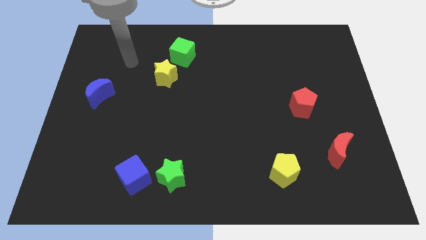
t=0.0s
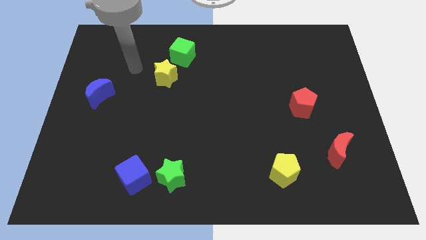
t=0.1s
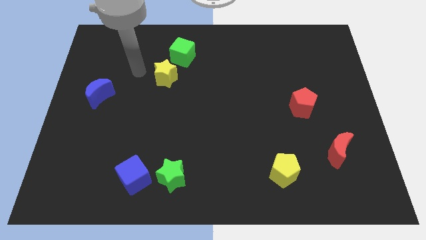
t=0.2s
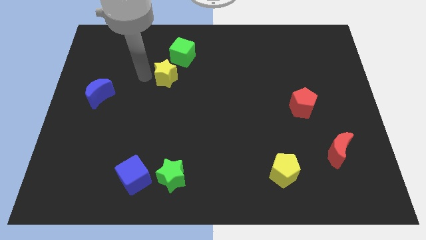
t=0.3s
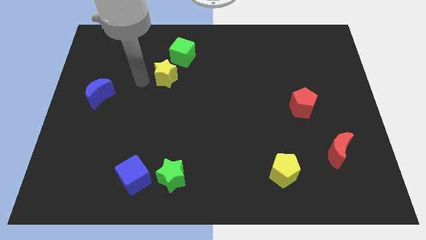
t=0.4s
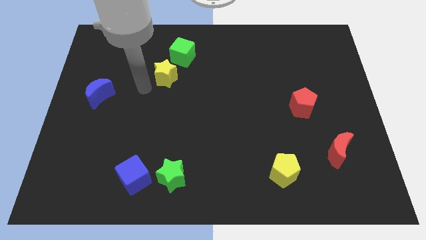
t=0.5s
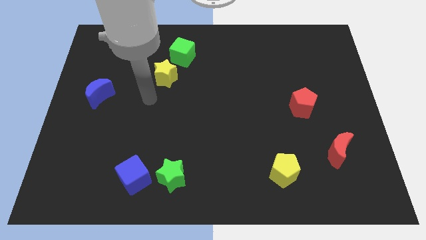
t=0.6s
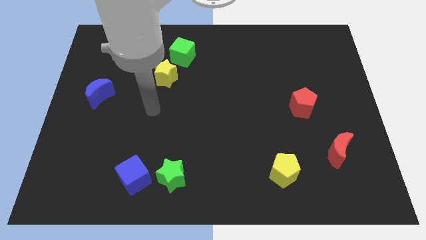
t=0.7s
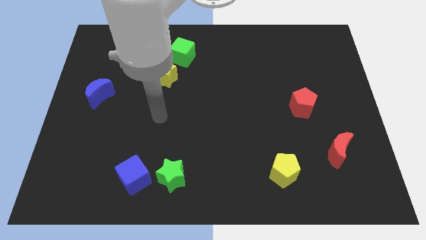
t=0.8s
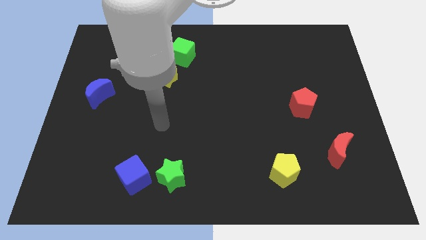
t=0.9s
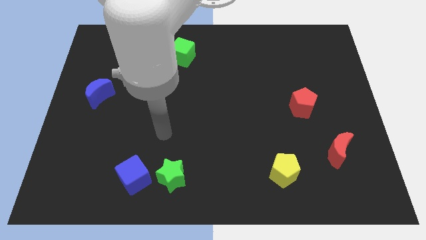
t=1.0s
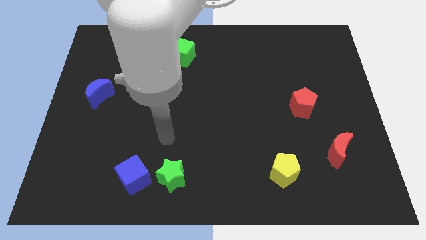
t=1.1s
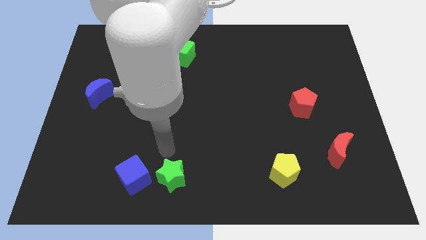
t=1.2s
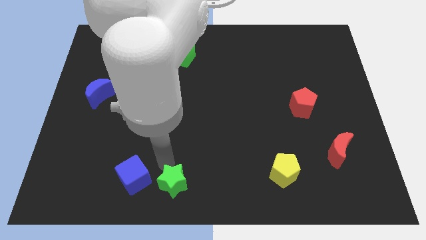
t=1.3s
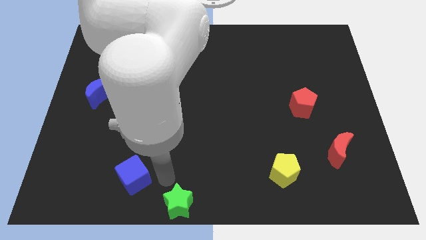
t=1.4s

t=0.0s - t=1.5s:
move the blue cube away from the green star

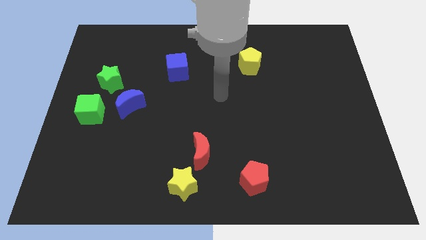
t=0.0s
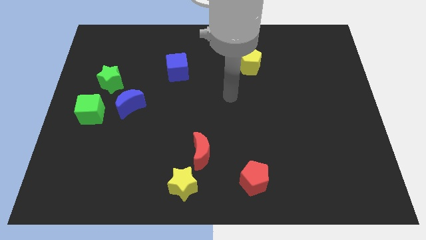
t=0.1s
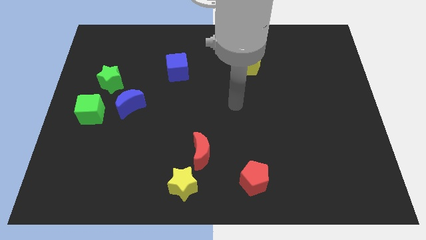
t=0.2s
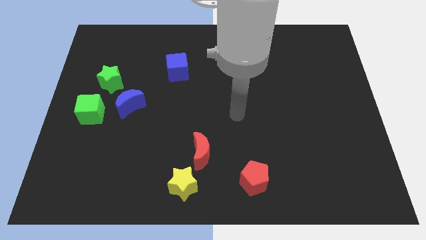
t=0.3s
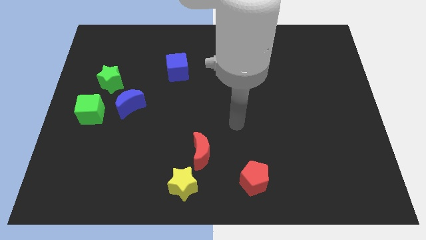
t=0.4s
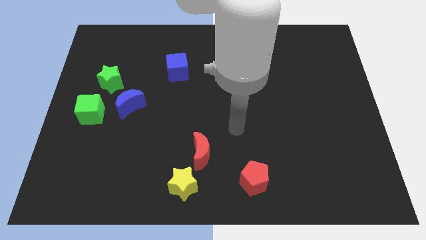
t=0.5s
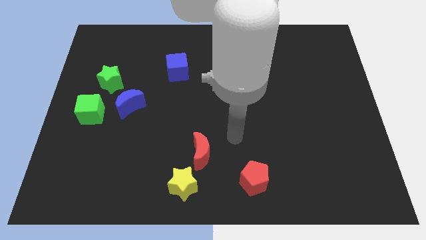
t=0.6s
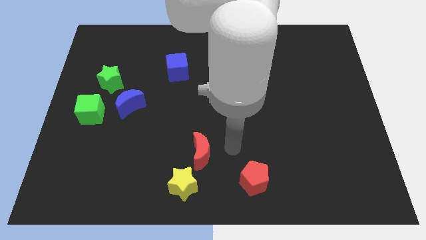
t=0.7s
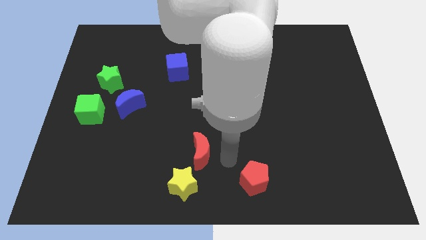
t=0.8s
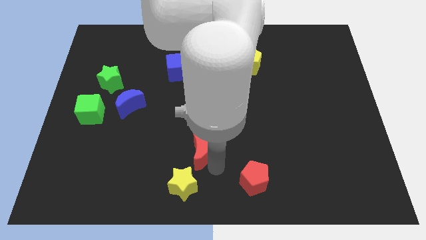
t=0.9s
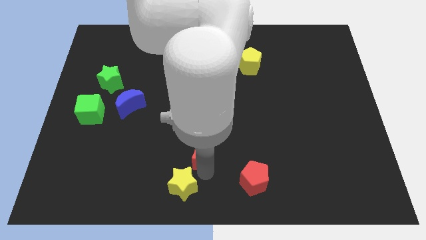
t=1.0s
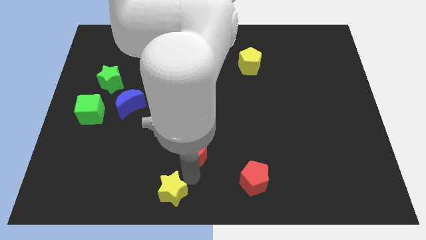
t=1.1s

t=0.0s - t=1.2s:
move the red moon away from the yellow star

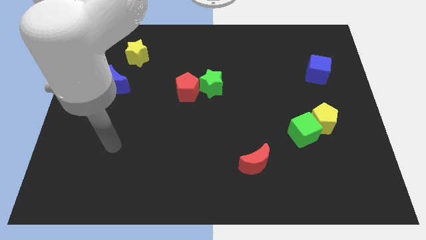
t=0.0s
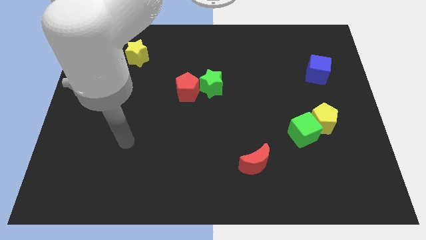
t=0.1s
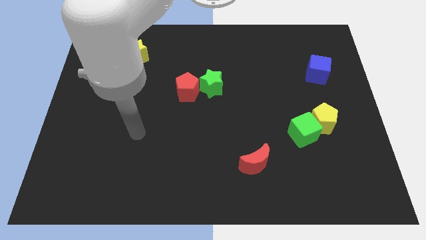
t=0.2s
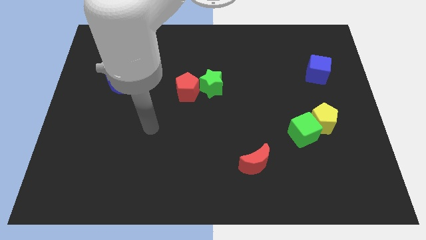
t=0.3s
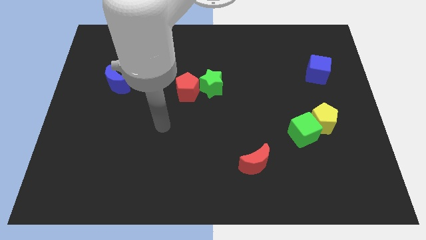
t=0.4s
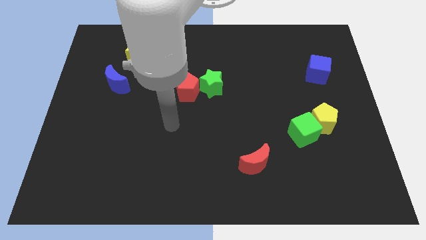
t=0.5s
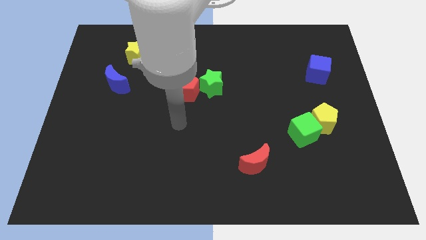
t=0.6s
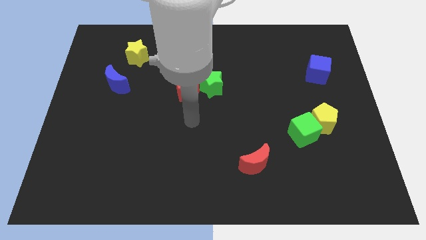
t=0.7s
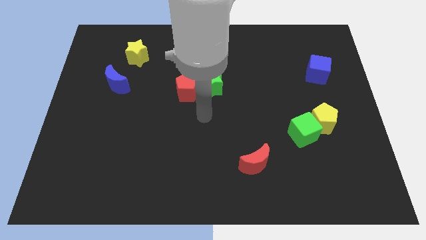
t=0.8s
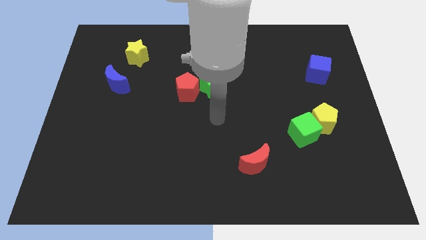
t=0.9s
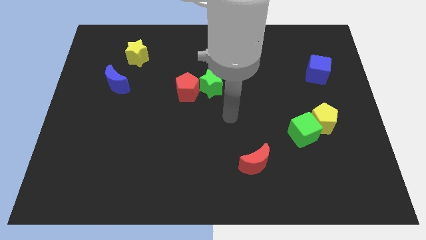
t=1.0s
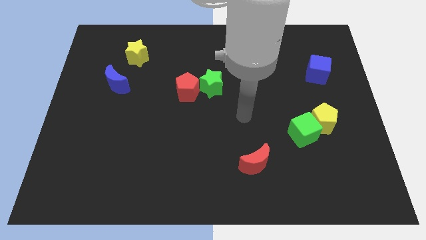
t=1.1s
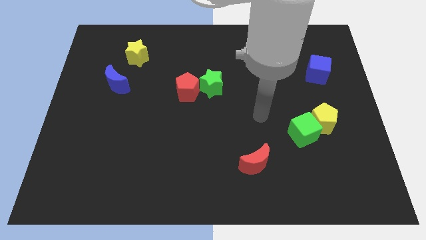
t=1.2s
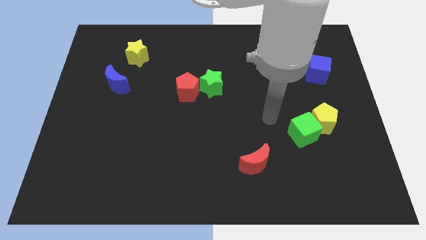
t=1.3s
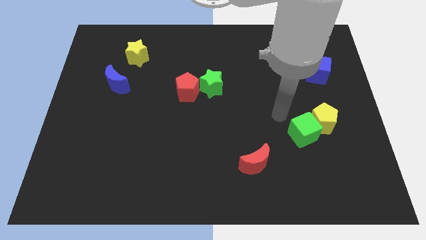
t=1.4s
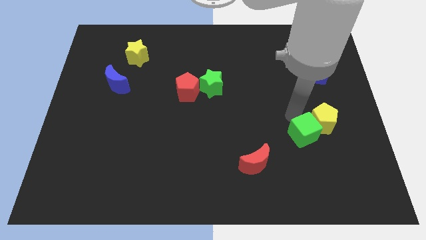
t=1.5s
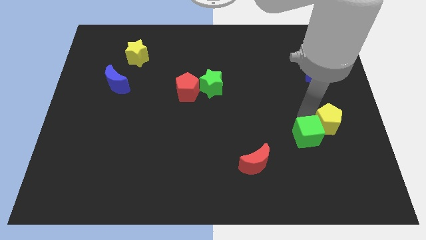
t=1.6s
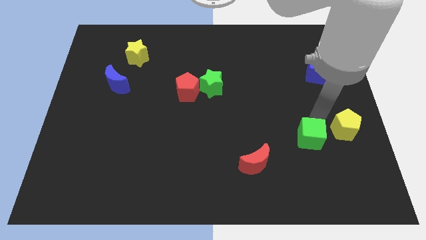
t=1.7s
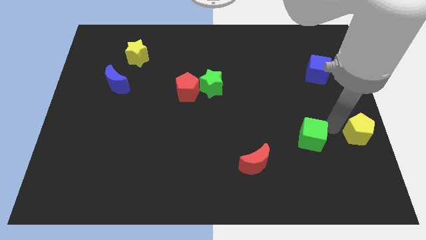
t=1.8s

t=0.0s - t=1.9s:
pull the green cube apart from the yellow pentagon

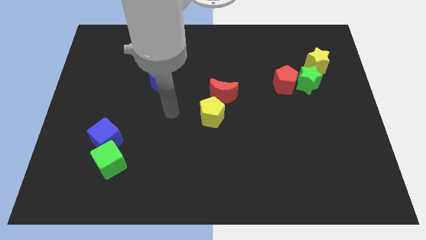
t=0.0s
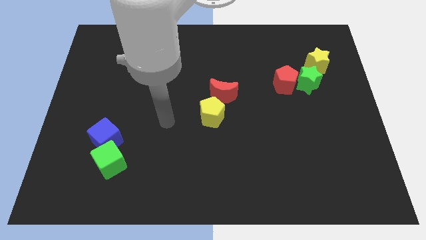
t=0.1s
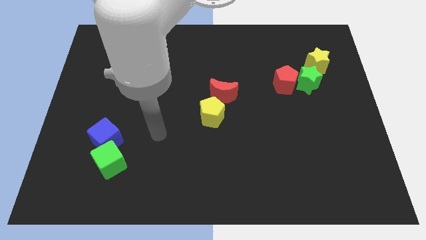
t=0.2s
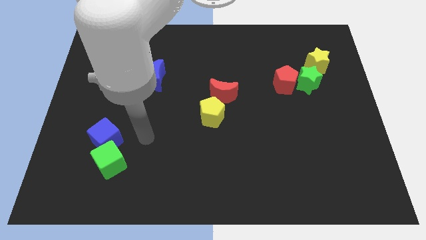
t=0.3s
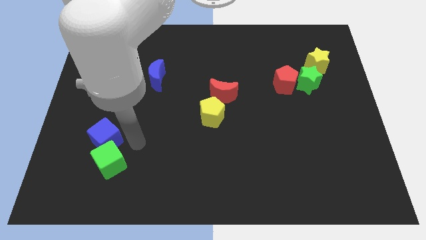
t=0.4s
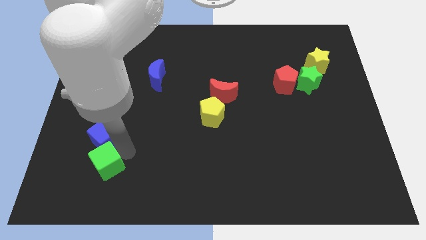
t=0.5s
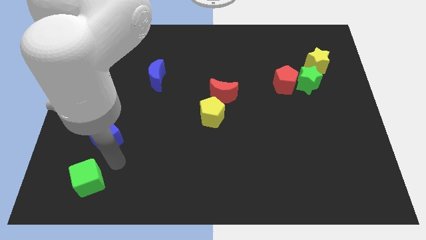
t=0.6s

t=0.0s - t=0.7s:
move the blue cube away from the green cube

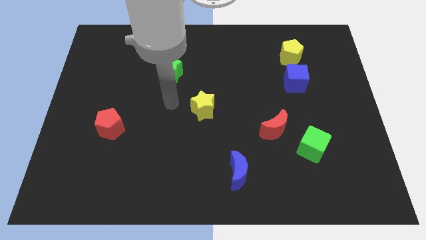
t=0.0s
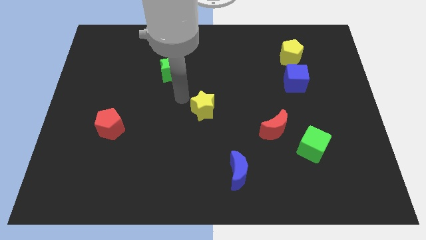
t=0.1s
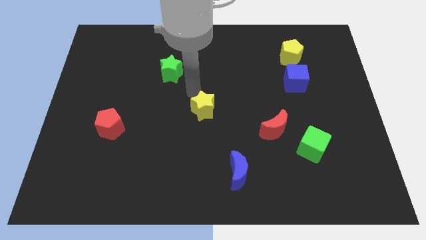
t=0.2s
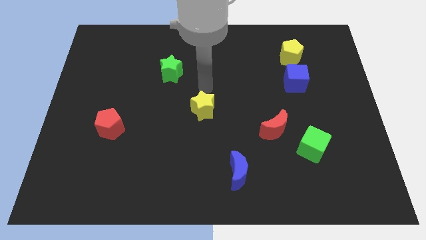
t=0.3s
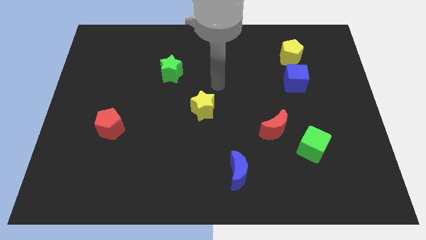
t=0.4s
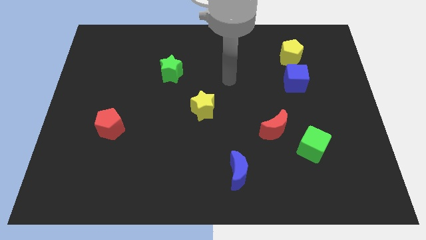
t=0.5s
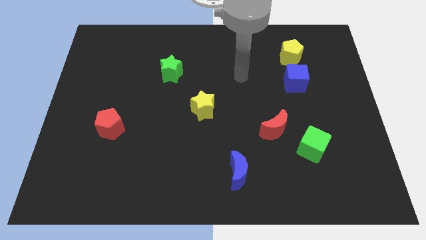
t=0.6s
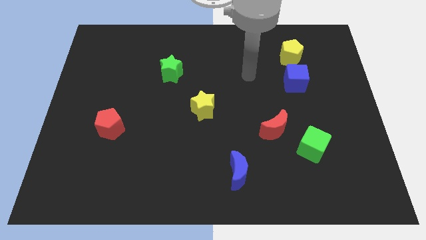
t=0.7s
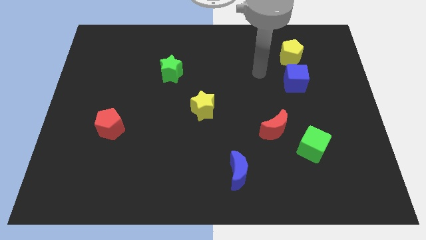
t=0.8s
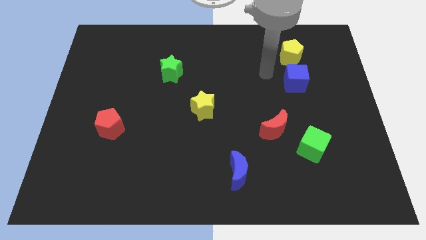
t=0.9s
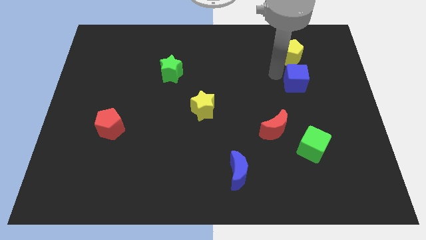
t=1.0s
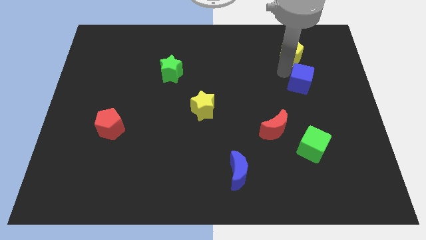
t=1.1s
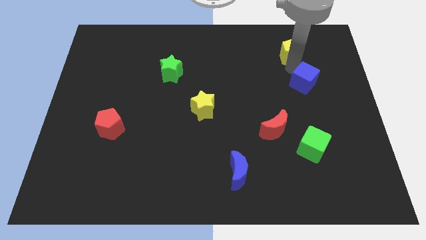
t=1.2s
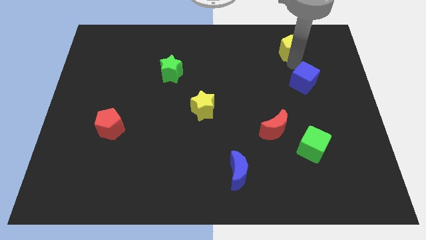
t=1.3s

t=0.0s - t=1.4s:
separate the blue cube from the yellow pentagon

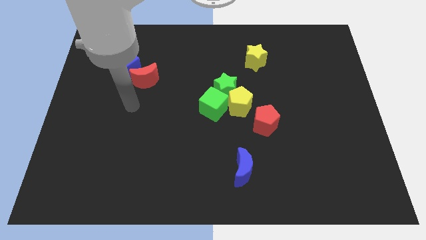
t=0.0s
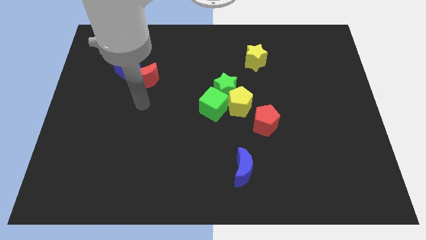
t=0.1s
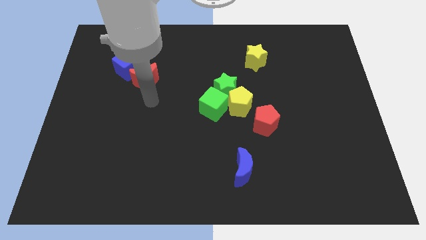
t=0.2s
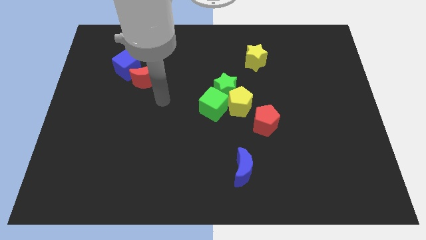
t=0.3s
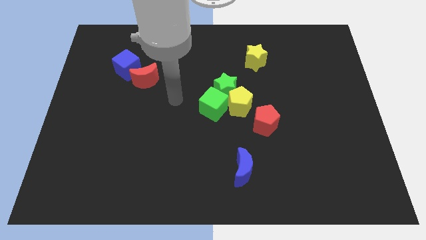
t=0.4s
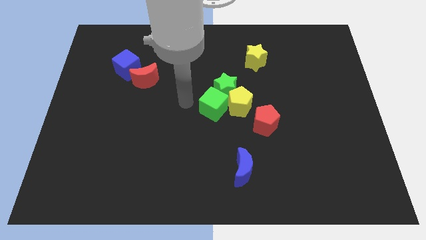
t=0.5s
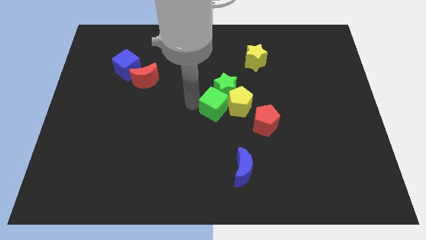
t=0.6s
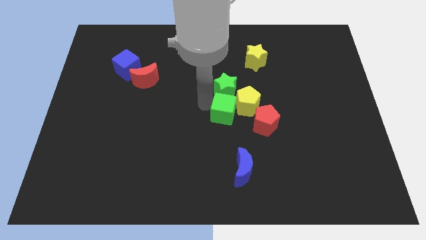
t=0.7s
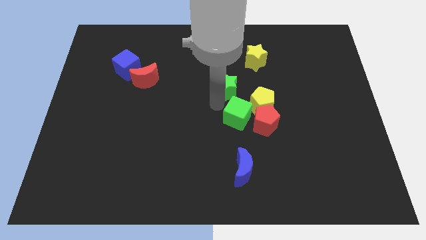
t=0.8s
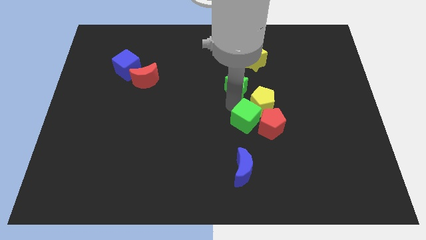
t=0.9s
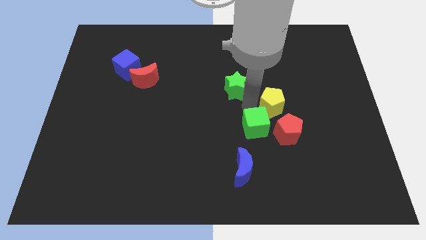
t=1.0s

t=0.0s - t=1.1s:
separate the green star from the yellow pentagon and green cube

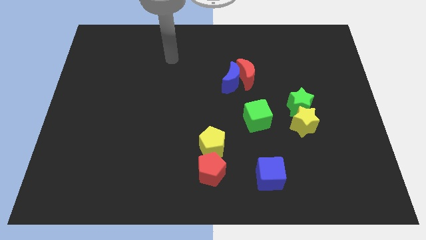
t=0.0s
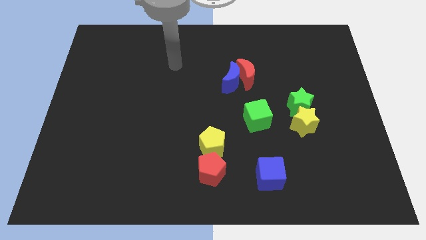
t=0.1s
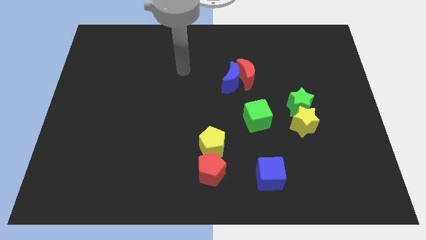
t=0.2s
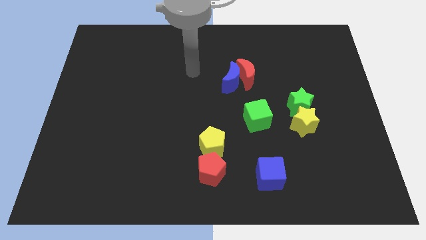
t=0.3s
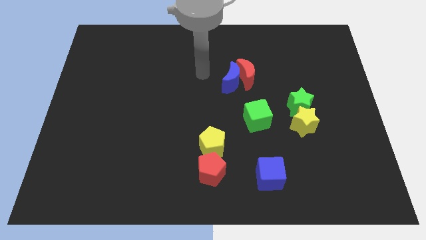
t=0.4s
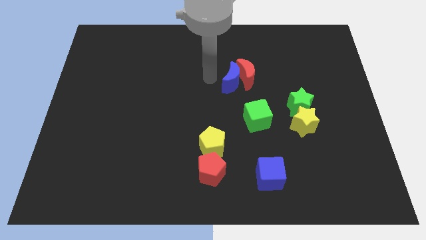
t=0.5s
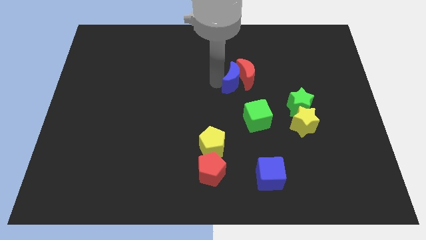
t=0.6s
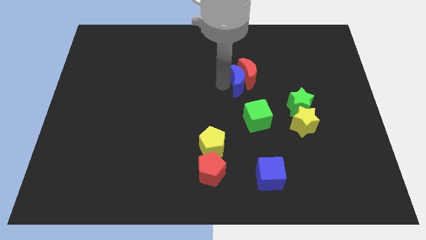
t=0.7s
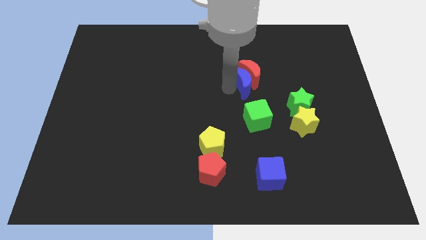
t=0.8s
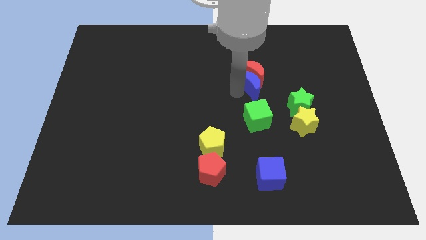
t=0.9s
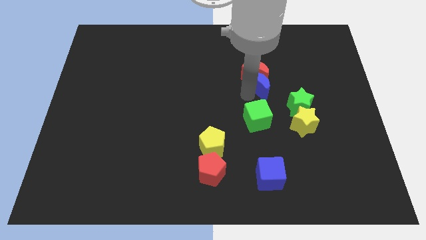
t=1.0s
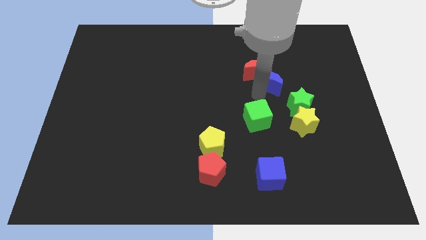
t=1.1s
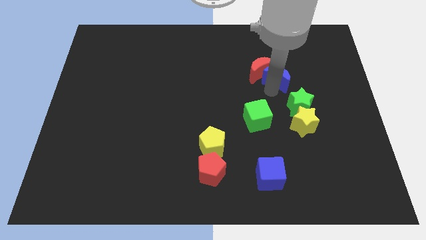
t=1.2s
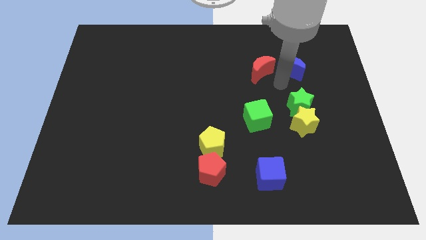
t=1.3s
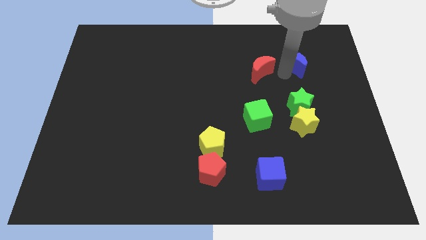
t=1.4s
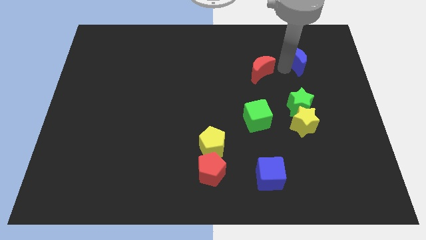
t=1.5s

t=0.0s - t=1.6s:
pull the red moon apart from the blue moon
